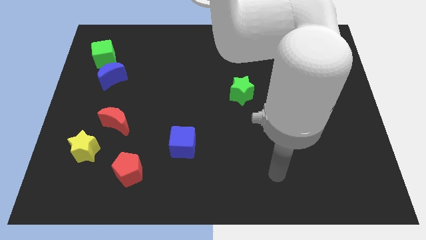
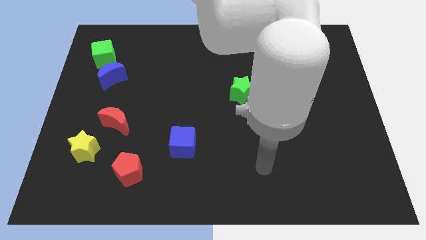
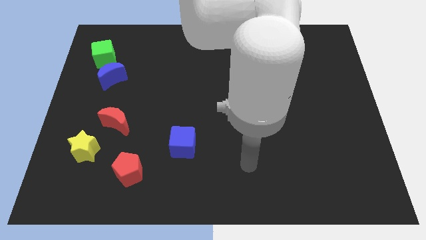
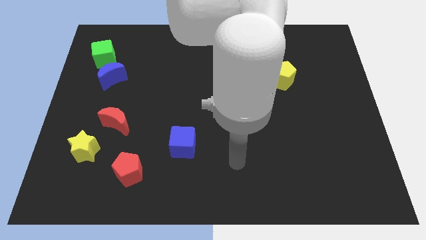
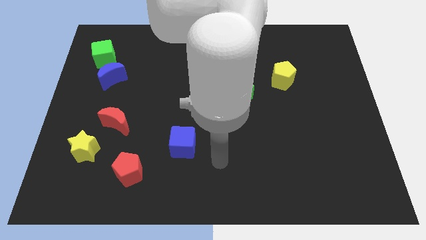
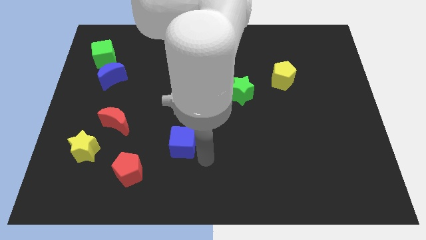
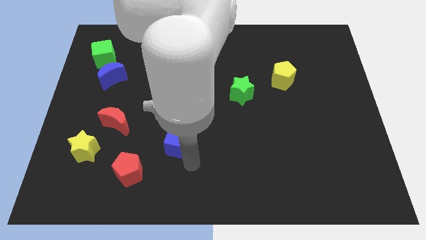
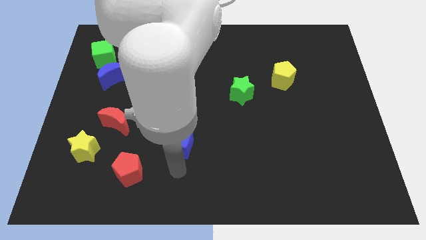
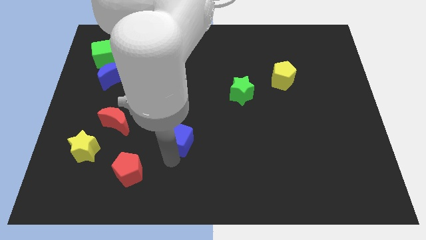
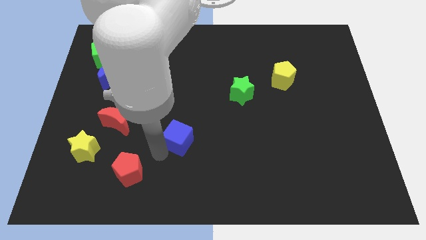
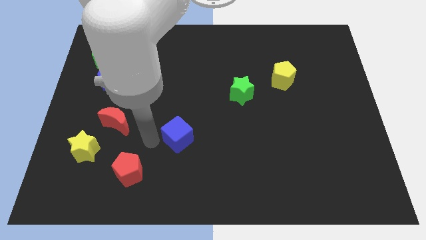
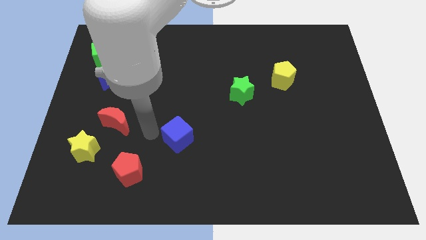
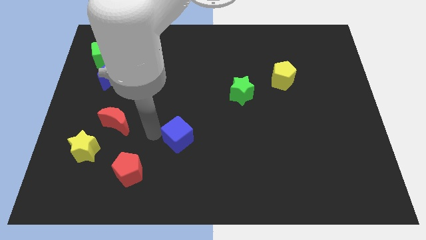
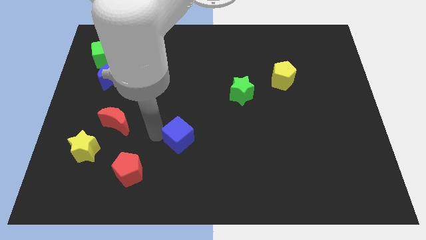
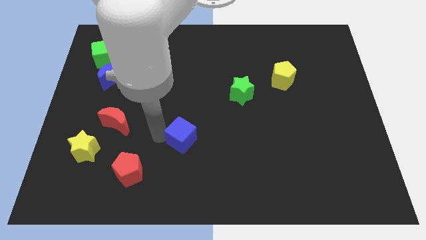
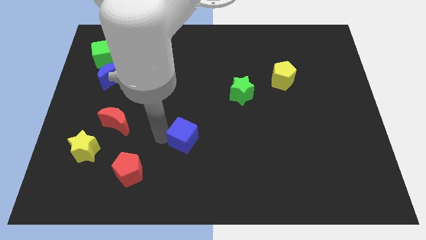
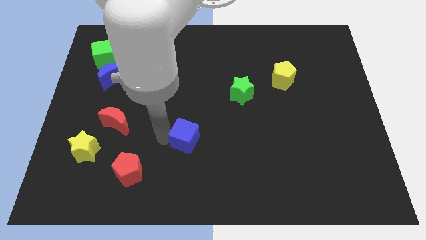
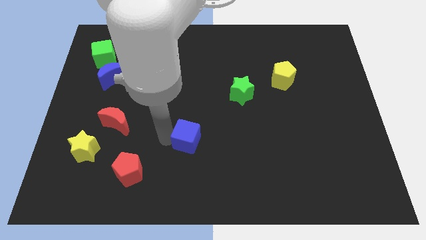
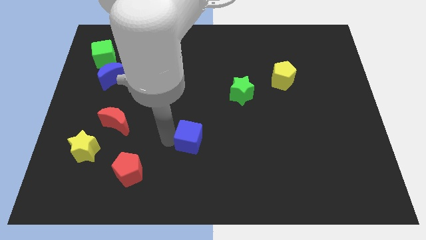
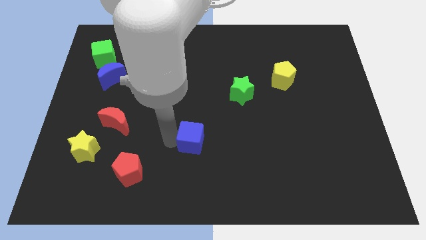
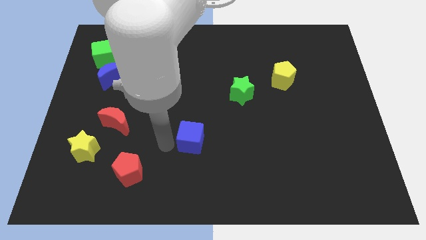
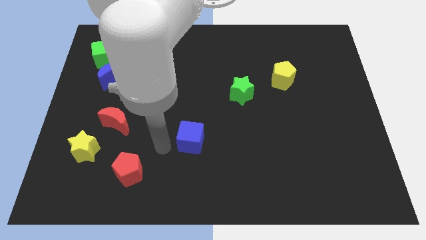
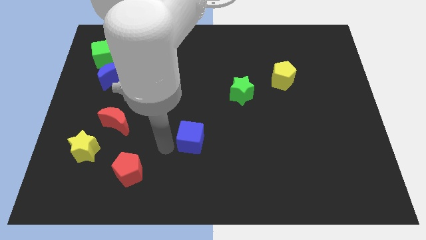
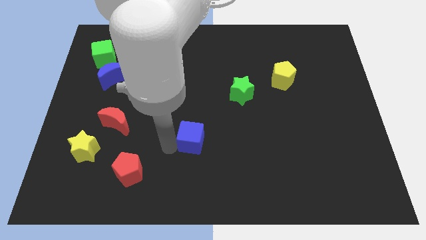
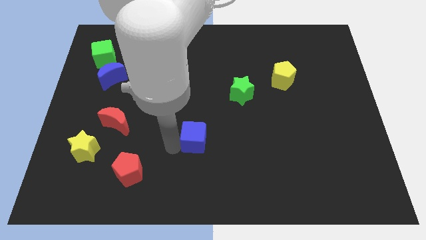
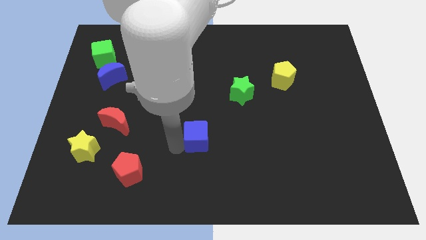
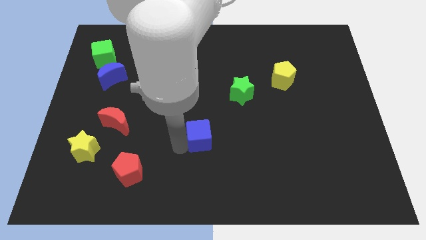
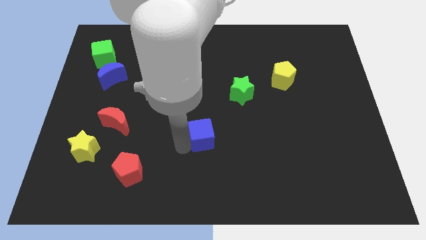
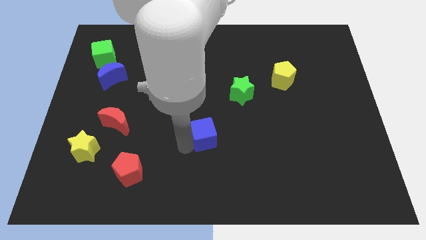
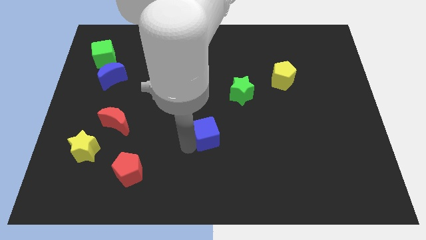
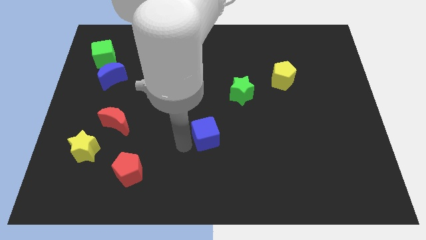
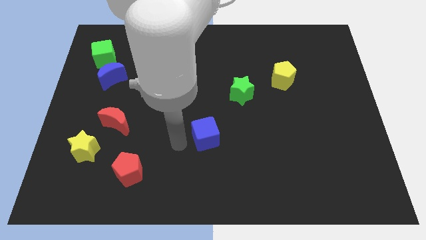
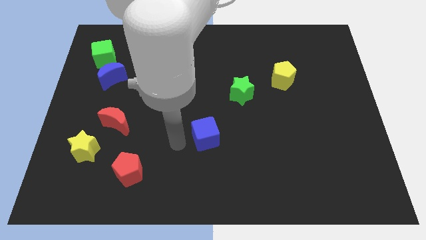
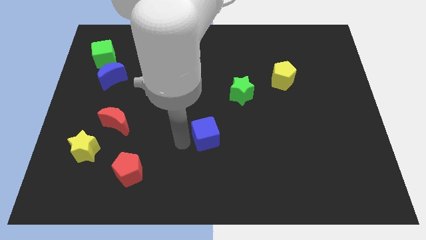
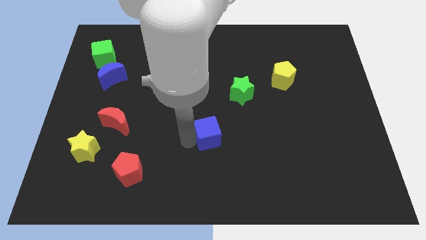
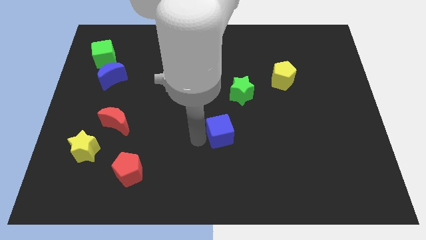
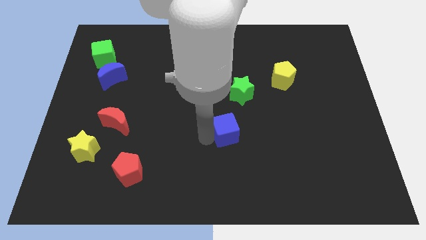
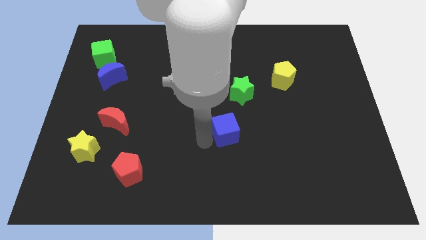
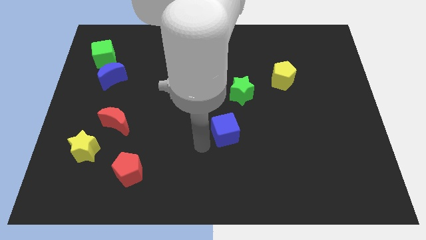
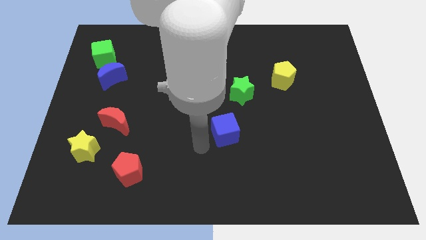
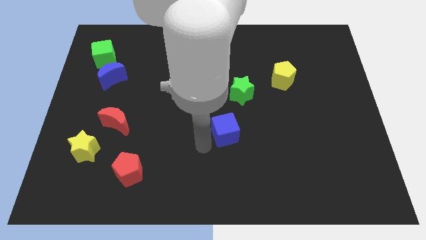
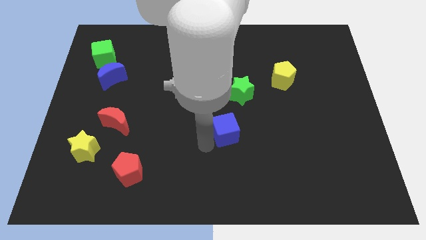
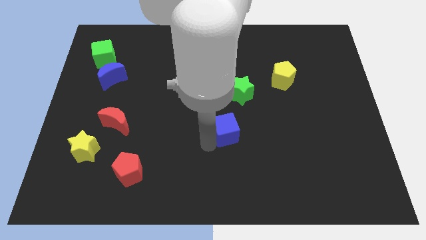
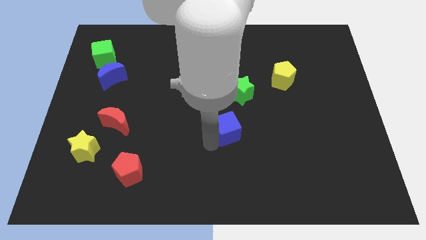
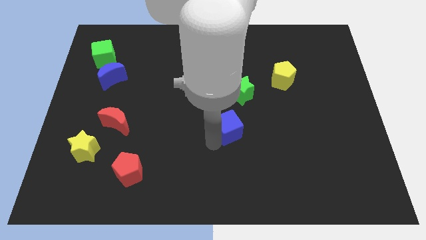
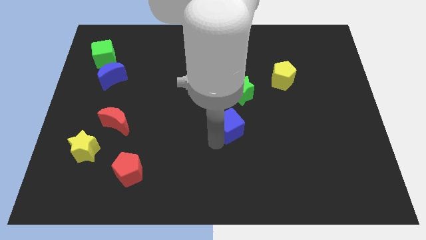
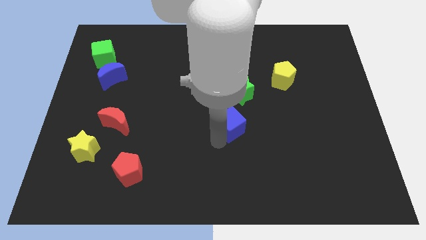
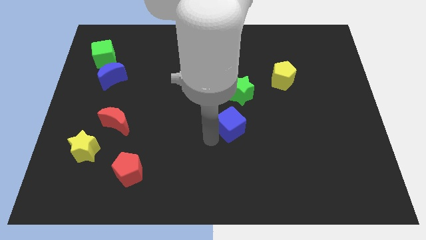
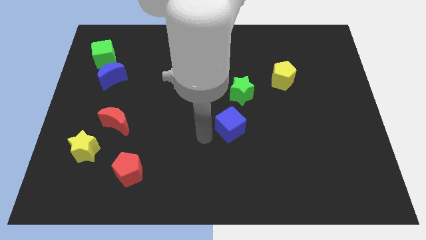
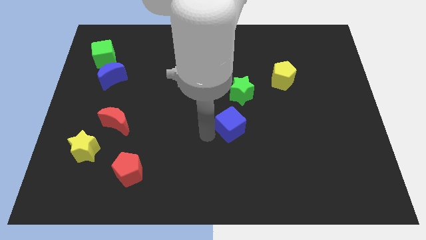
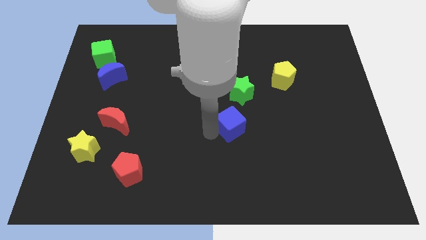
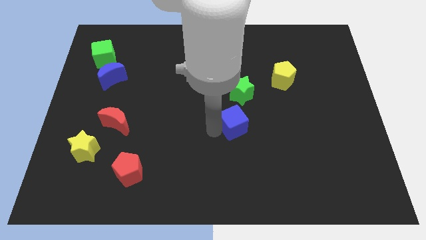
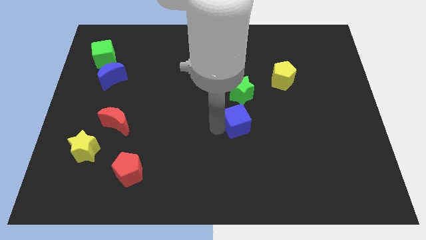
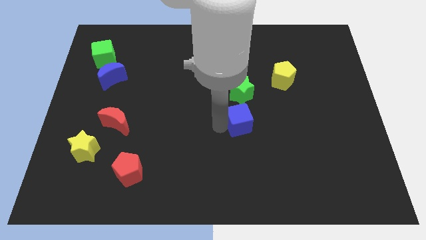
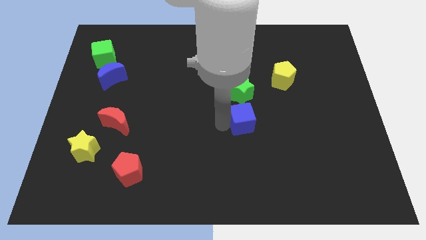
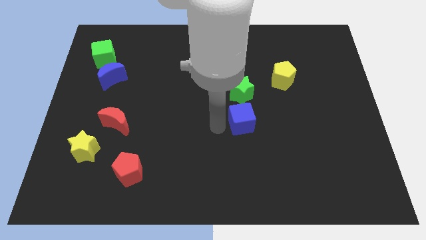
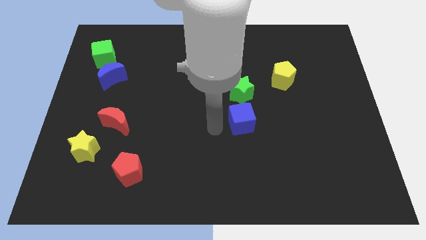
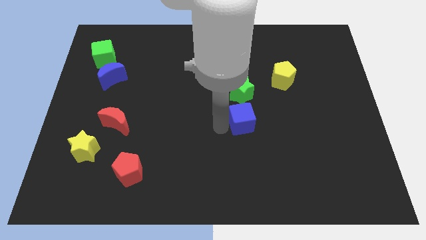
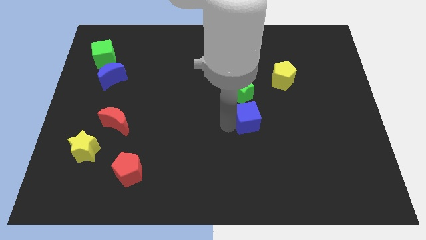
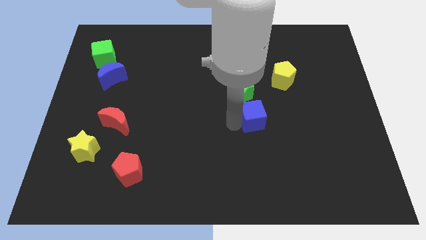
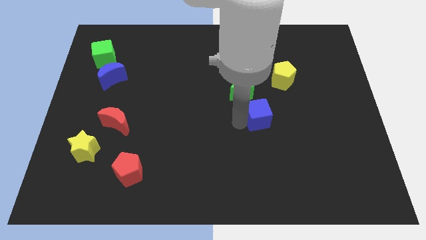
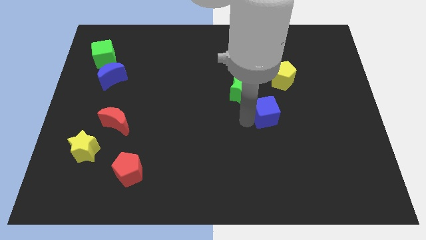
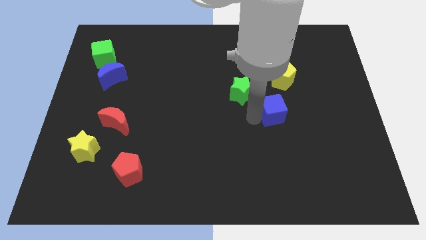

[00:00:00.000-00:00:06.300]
put the blue cube below the yellow pentagon
